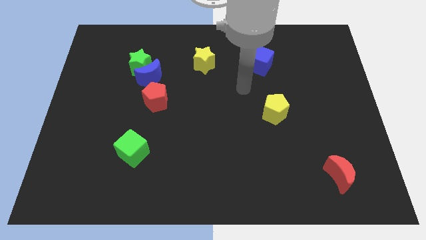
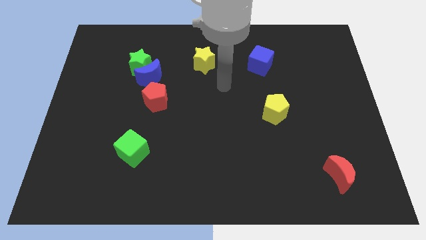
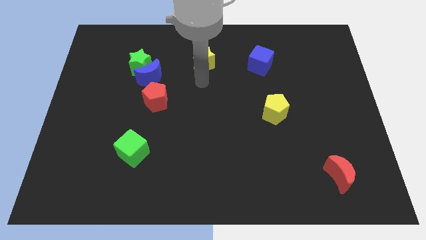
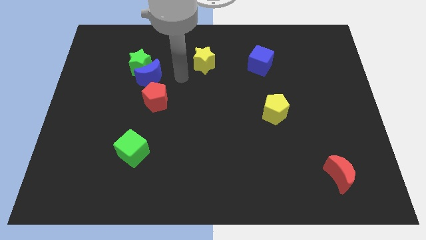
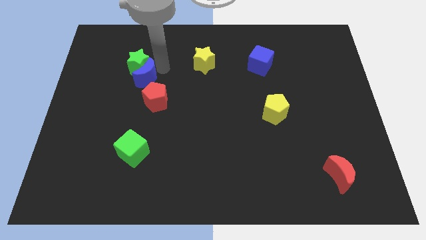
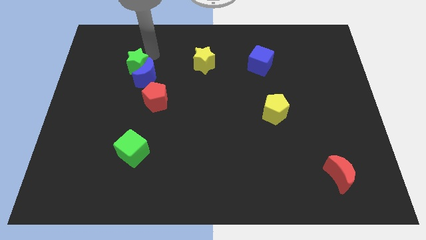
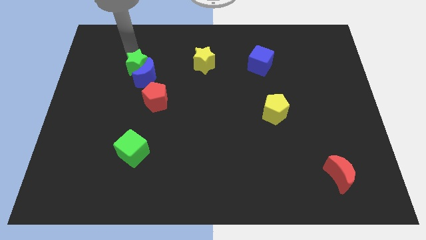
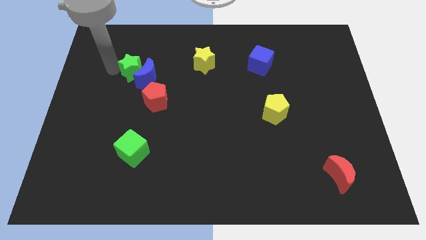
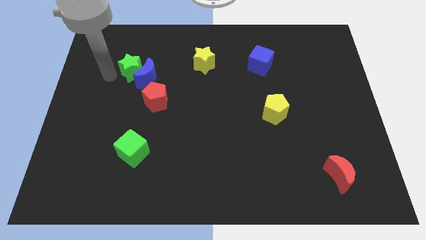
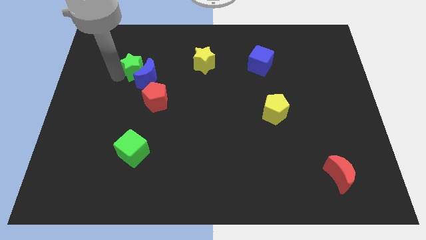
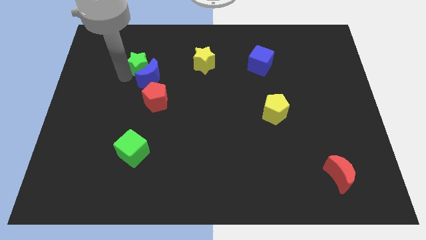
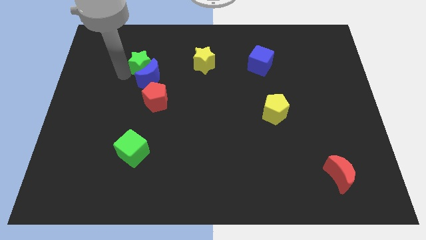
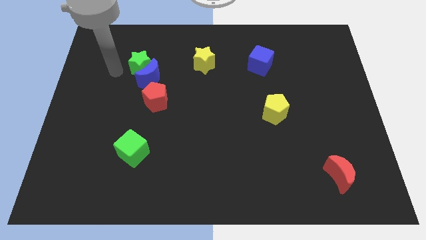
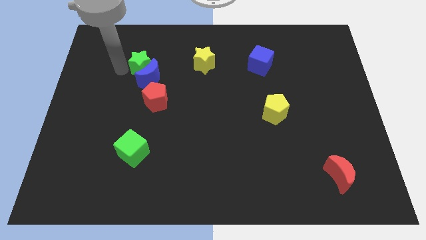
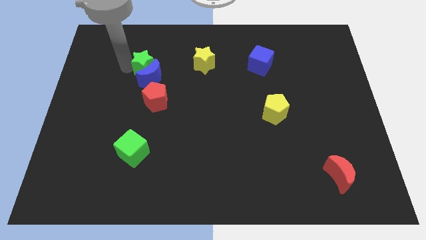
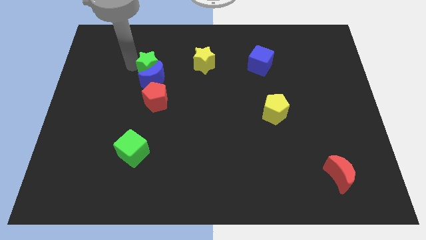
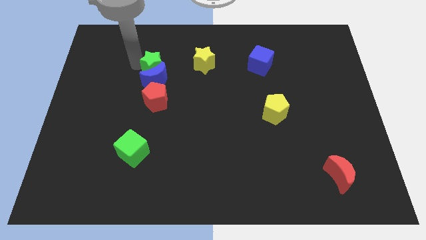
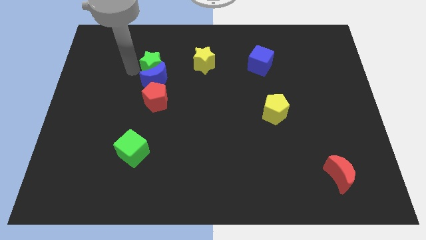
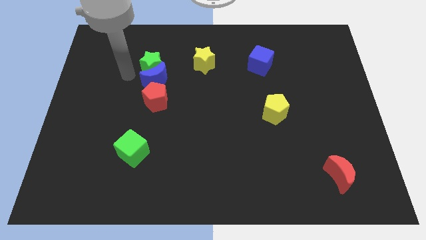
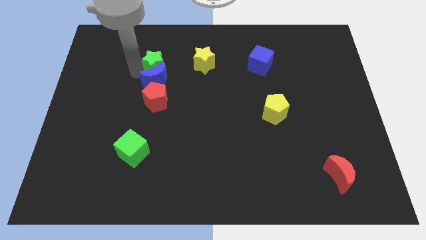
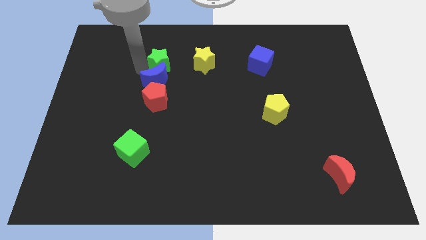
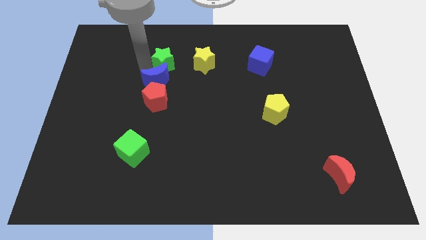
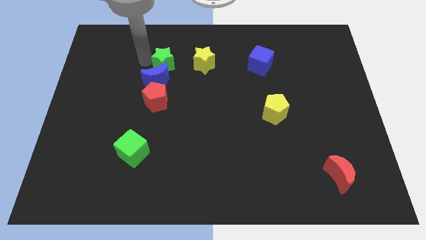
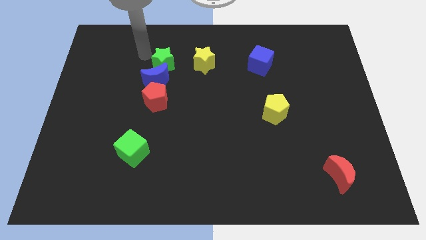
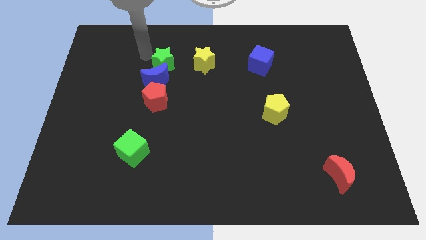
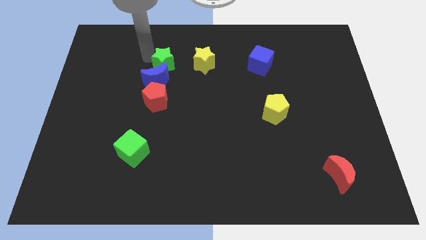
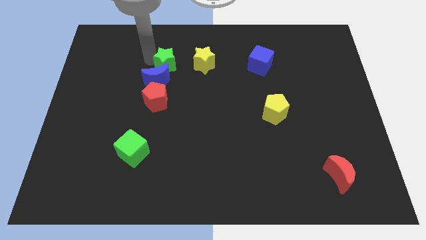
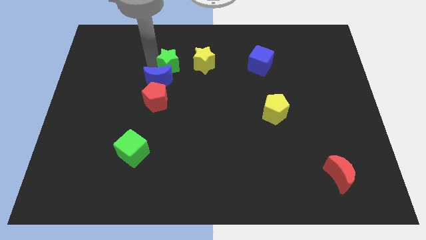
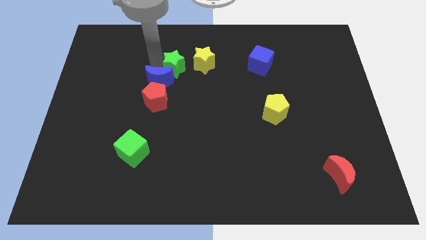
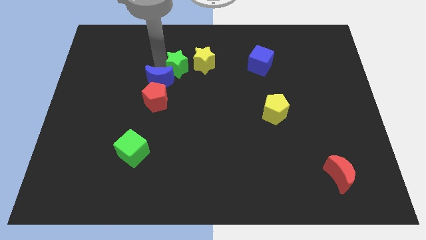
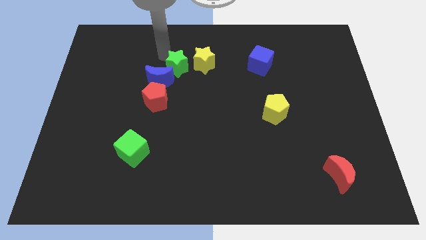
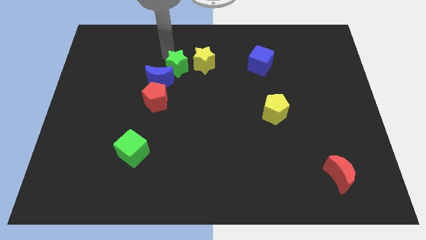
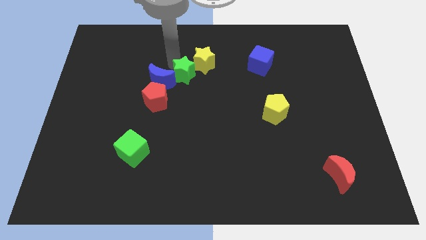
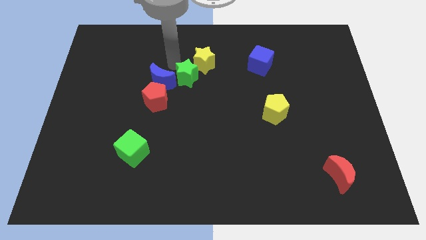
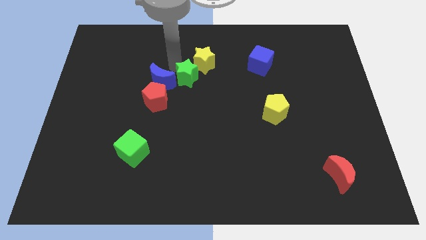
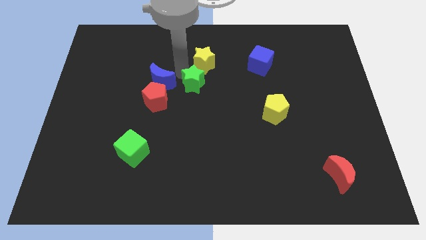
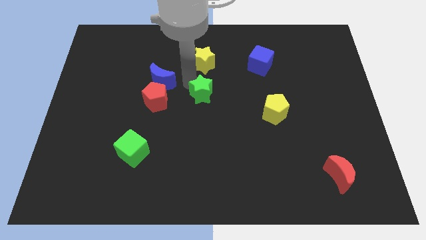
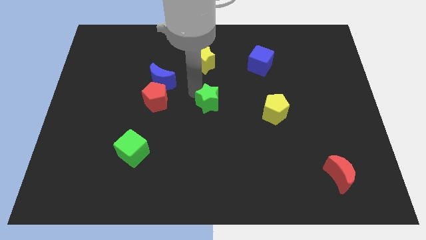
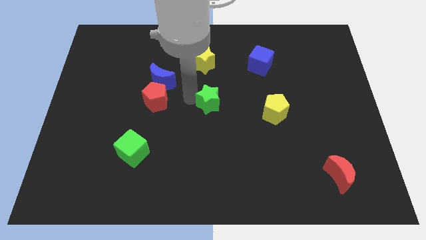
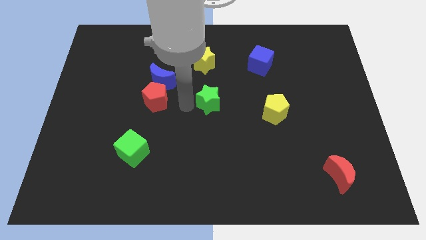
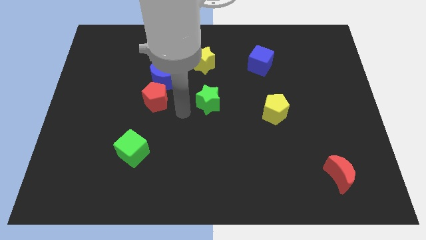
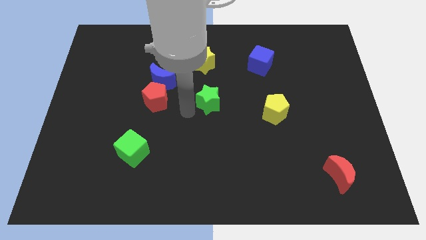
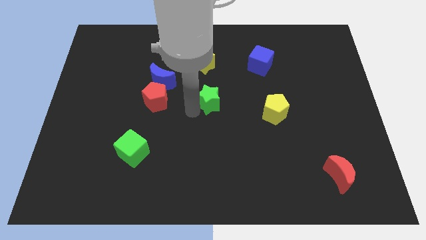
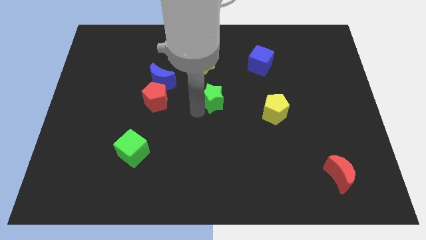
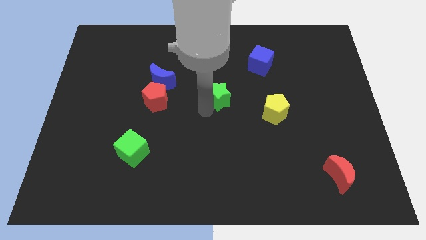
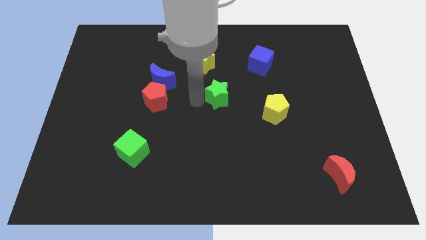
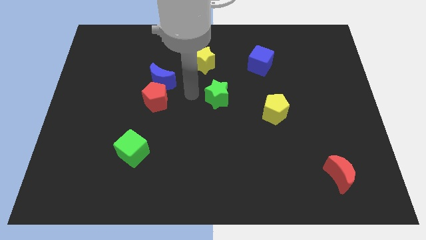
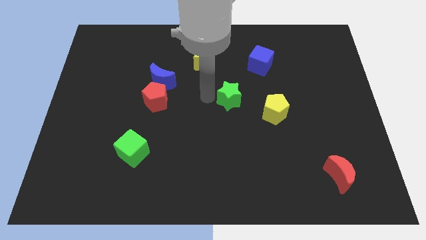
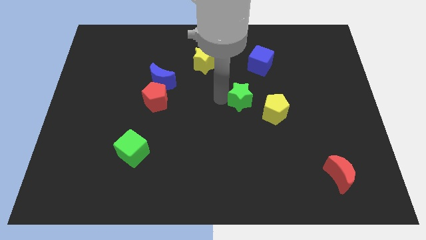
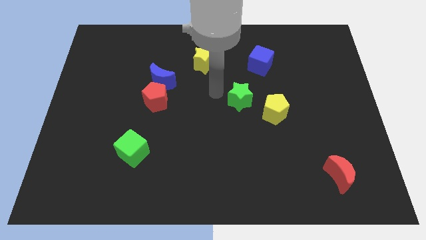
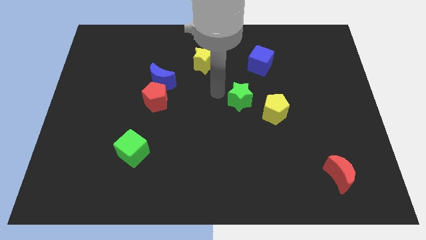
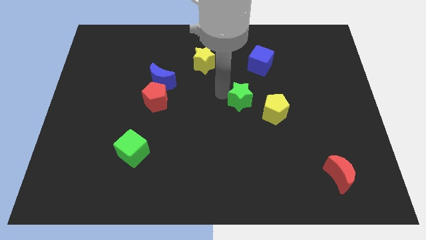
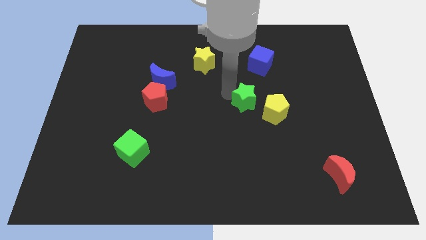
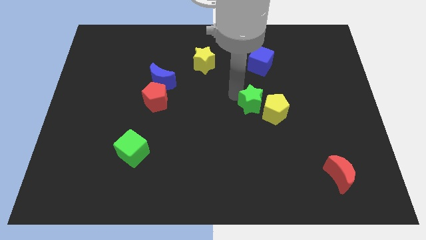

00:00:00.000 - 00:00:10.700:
put the green star to the yellow pentagon
